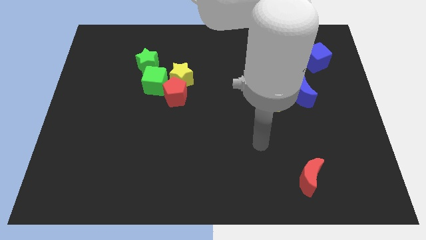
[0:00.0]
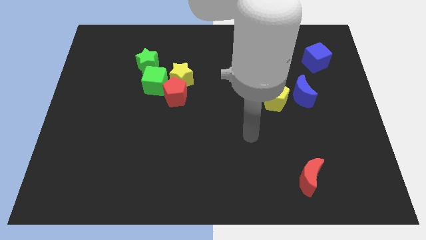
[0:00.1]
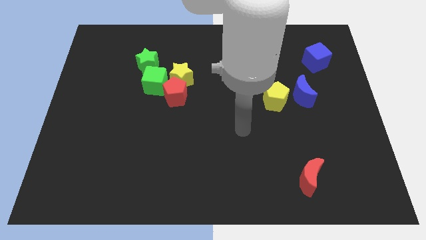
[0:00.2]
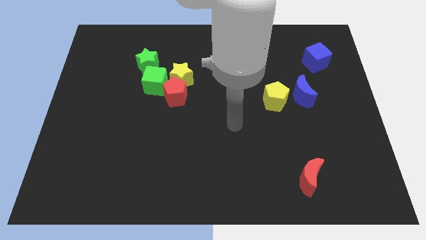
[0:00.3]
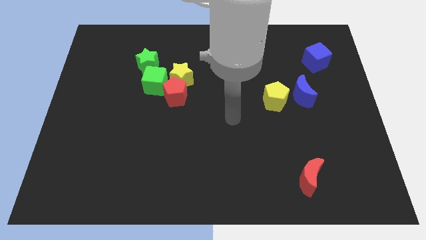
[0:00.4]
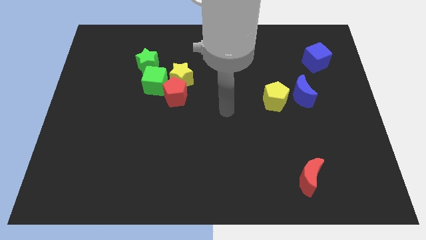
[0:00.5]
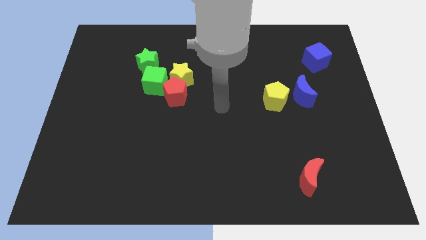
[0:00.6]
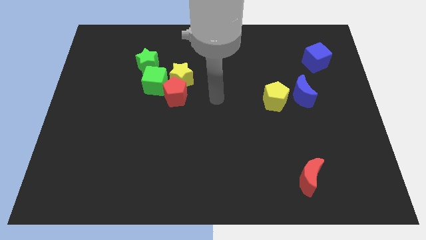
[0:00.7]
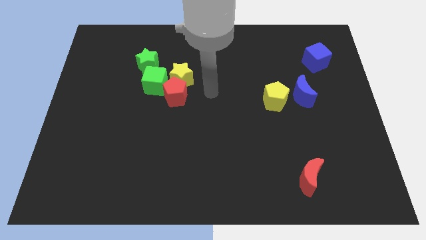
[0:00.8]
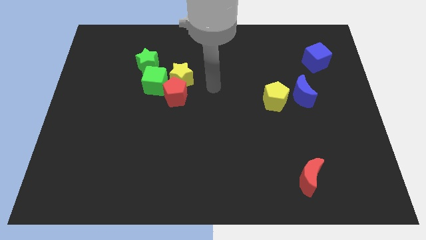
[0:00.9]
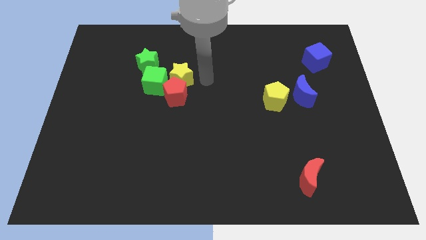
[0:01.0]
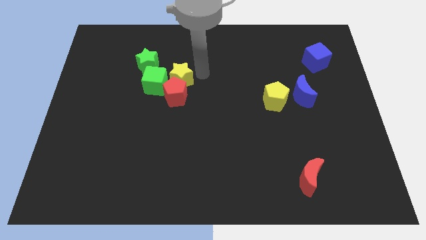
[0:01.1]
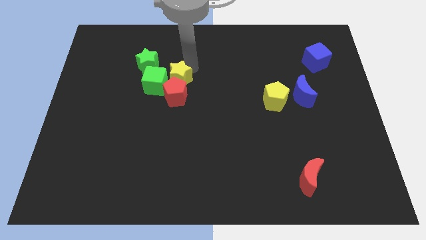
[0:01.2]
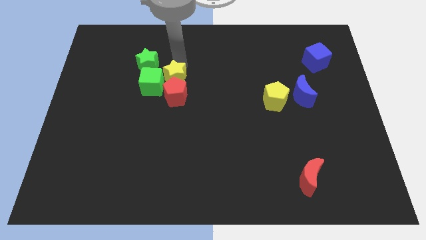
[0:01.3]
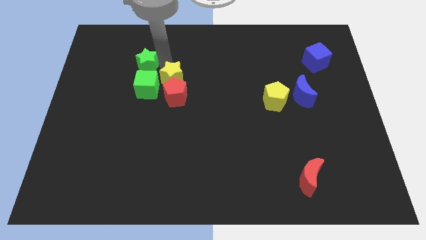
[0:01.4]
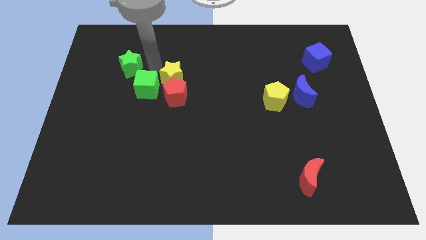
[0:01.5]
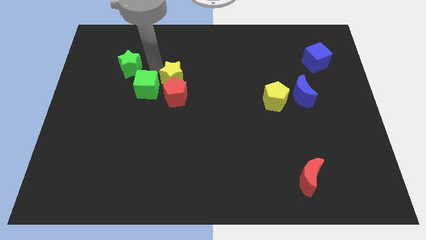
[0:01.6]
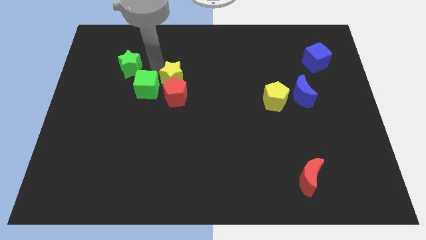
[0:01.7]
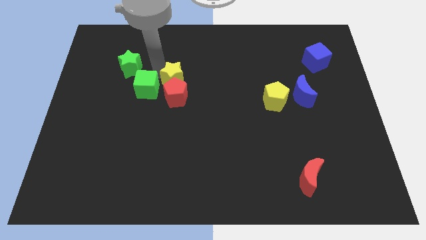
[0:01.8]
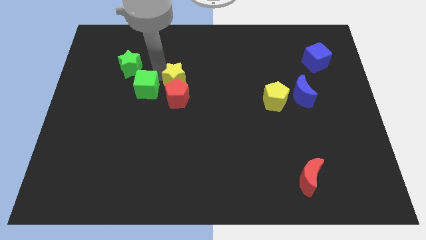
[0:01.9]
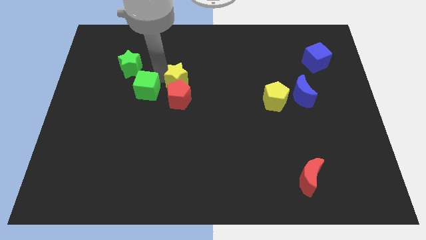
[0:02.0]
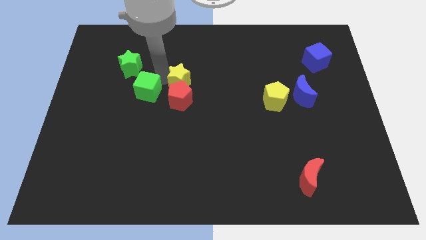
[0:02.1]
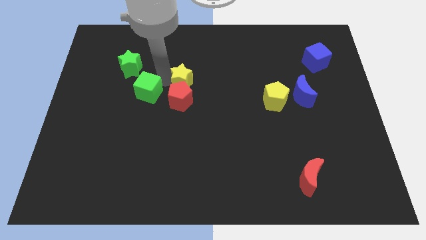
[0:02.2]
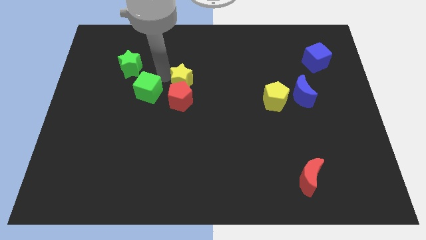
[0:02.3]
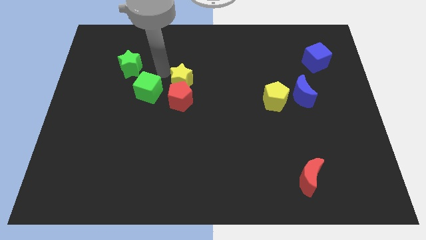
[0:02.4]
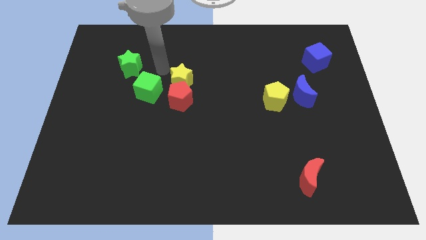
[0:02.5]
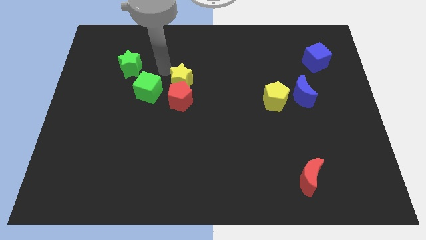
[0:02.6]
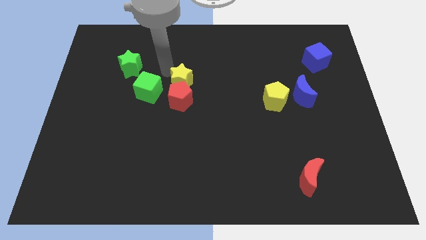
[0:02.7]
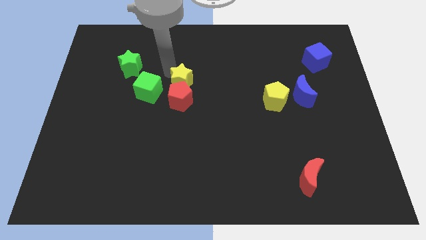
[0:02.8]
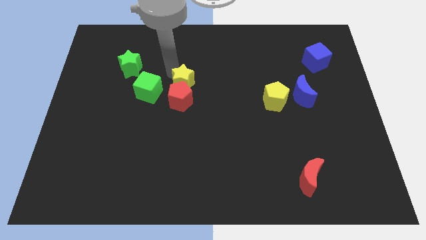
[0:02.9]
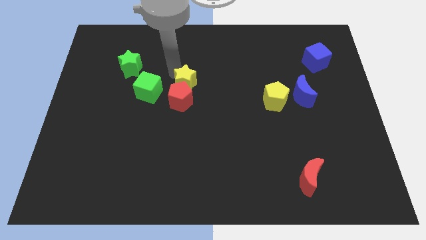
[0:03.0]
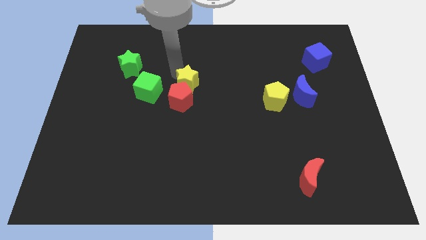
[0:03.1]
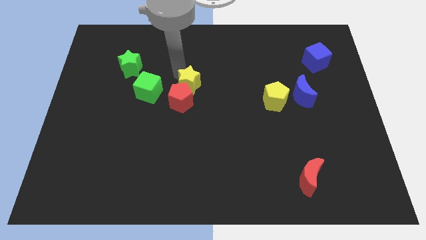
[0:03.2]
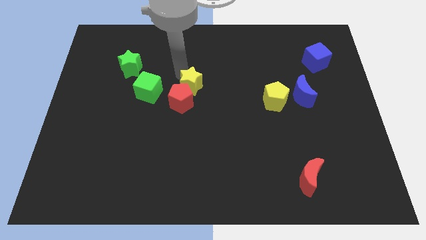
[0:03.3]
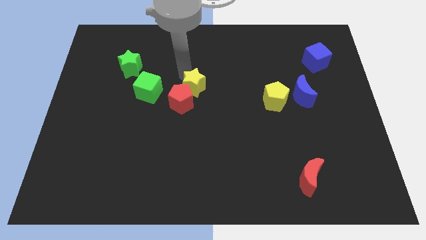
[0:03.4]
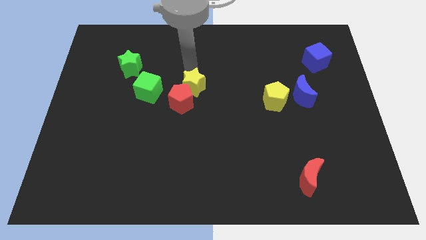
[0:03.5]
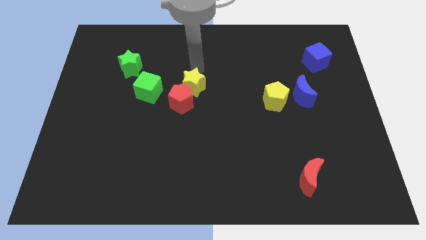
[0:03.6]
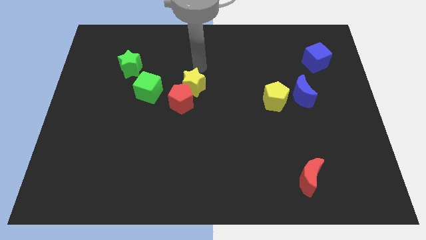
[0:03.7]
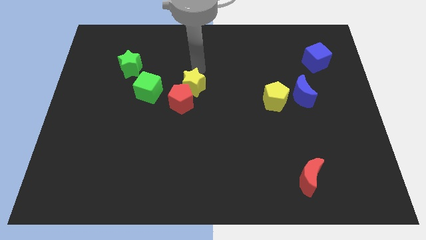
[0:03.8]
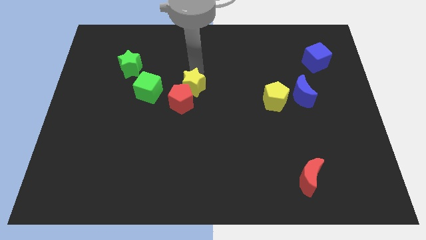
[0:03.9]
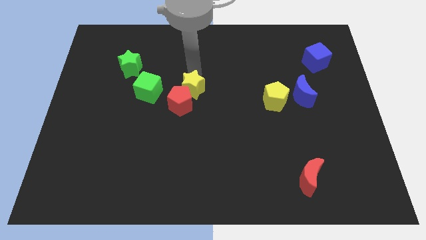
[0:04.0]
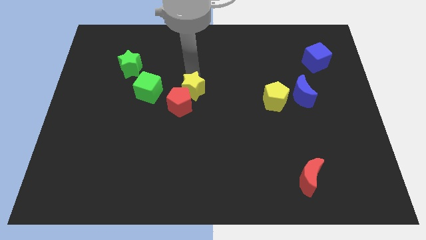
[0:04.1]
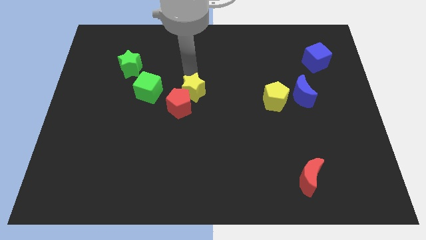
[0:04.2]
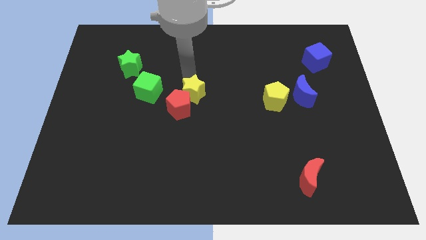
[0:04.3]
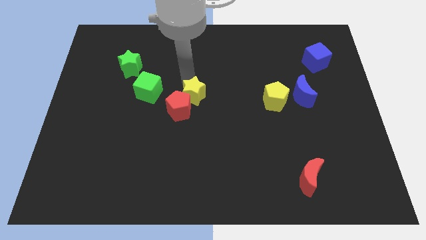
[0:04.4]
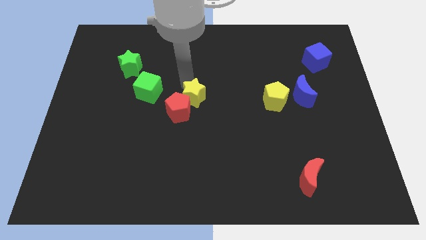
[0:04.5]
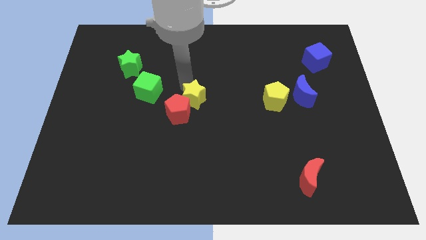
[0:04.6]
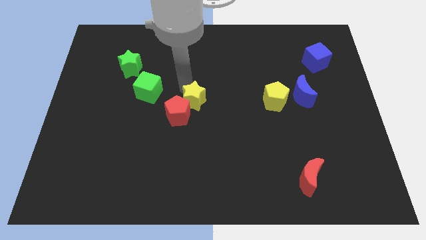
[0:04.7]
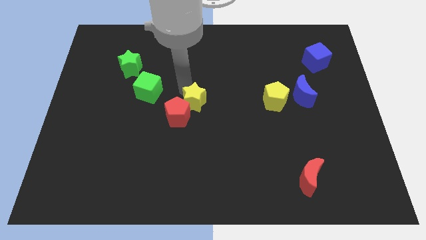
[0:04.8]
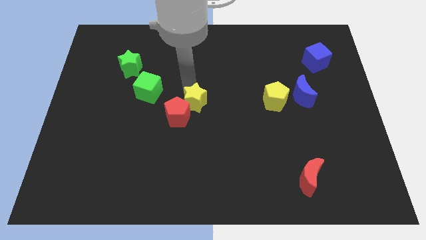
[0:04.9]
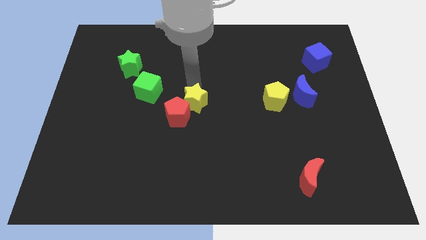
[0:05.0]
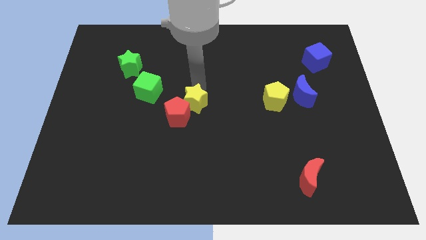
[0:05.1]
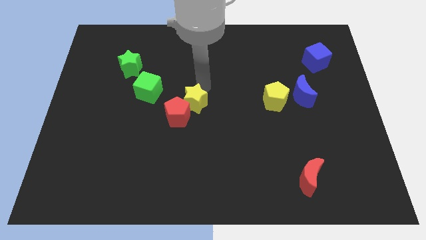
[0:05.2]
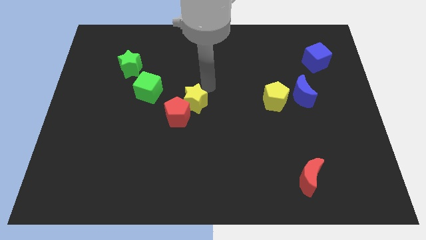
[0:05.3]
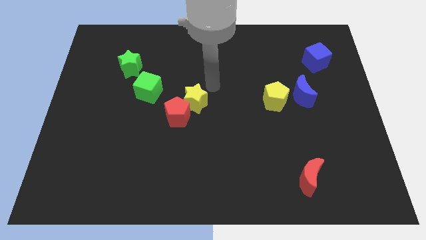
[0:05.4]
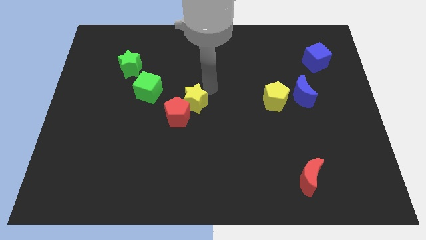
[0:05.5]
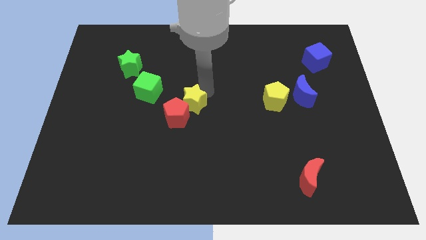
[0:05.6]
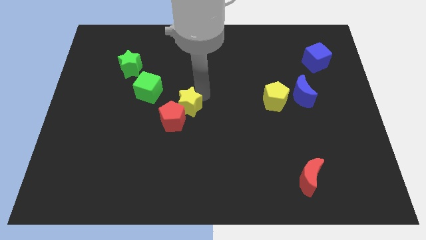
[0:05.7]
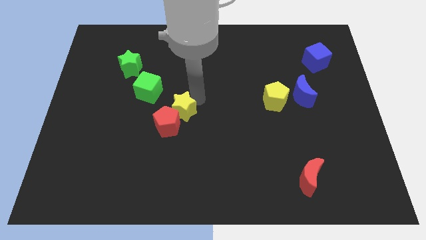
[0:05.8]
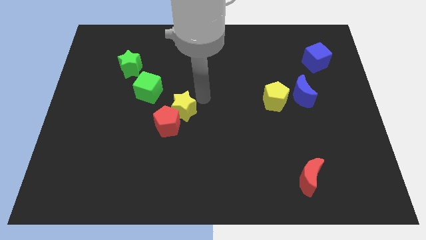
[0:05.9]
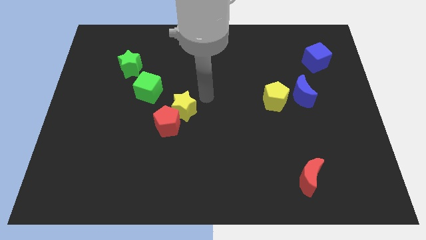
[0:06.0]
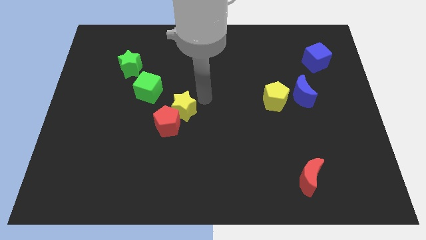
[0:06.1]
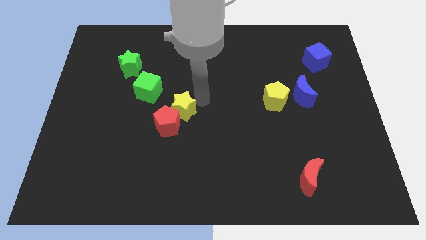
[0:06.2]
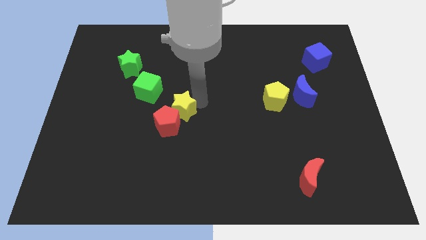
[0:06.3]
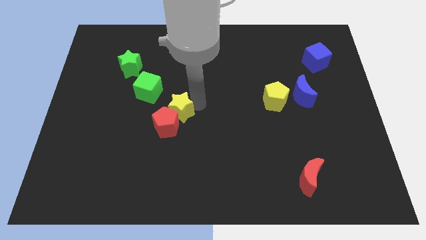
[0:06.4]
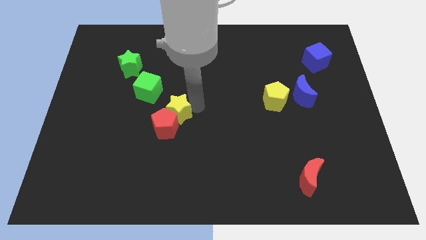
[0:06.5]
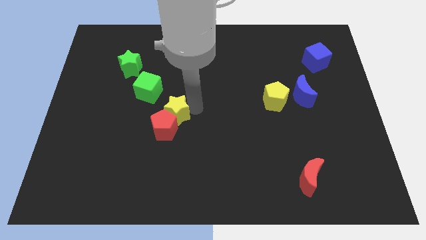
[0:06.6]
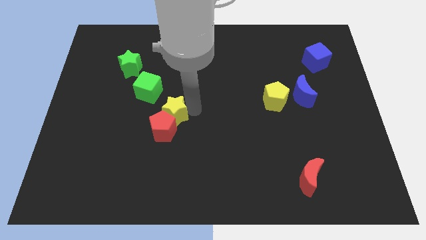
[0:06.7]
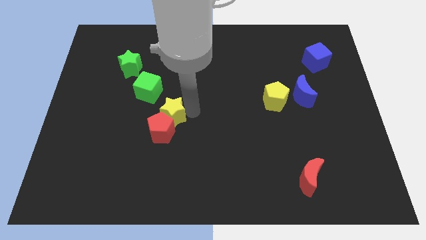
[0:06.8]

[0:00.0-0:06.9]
move the yellow star a little diagonally downwards and left

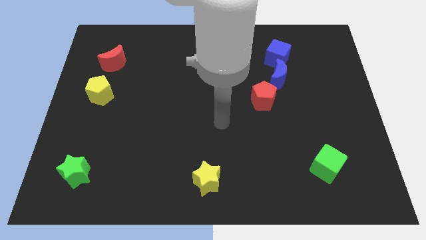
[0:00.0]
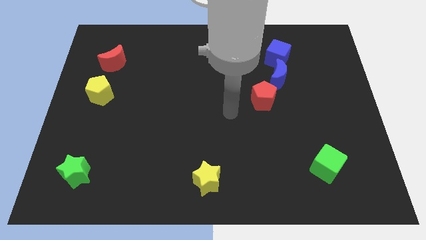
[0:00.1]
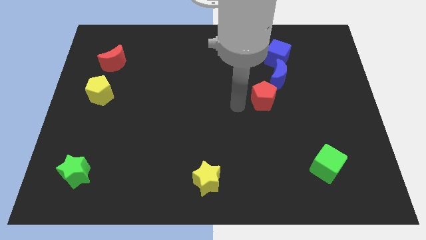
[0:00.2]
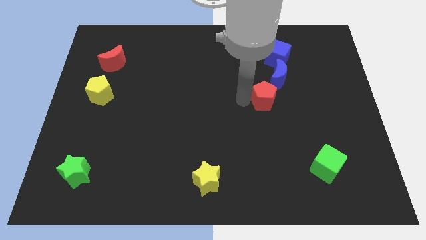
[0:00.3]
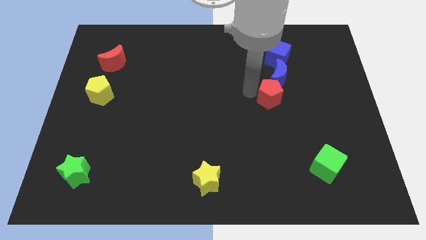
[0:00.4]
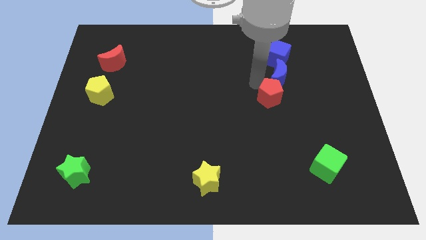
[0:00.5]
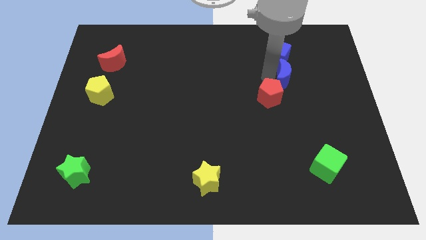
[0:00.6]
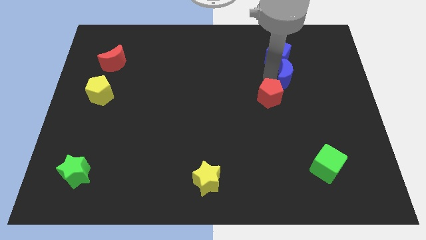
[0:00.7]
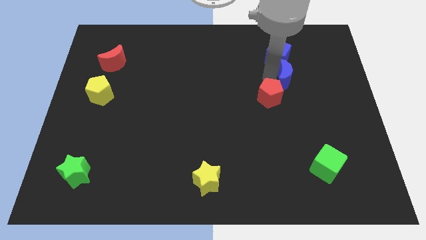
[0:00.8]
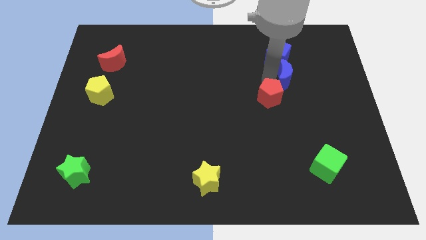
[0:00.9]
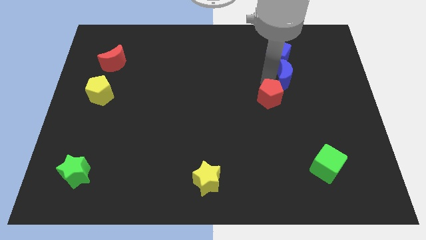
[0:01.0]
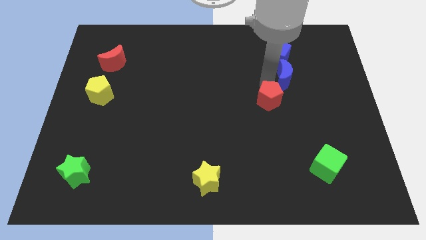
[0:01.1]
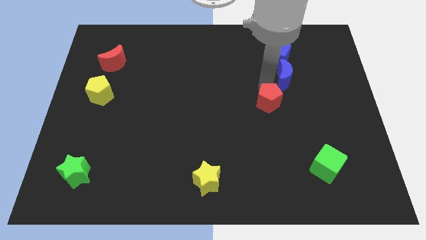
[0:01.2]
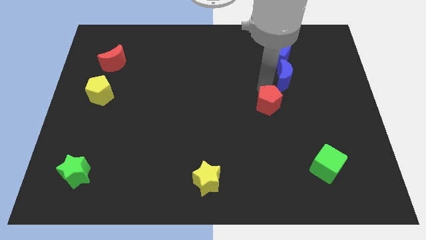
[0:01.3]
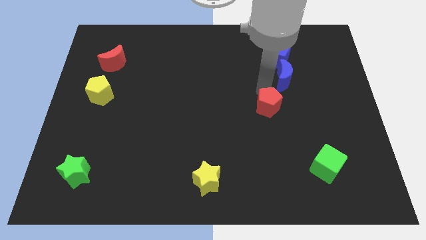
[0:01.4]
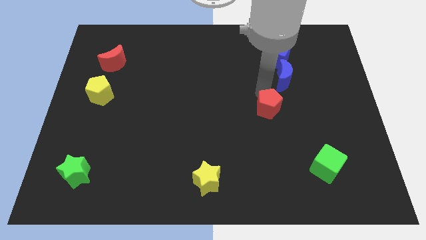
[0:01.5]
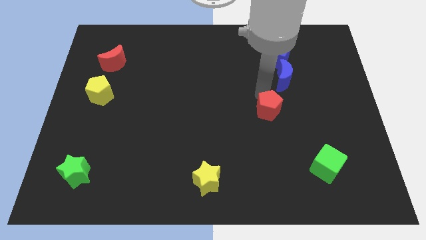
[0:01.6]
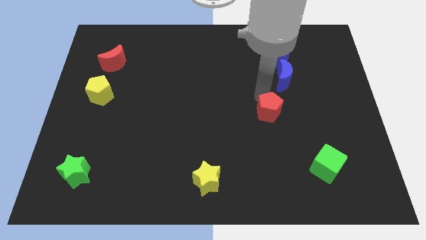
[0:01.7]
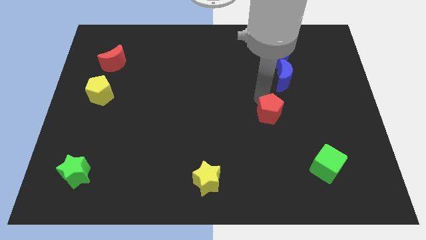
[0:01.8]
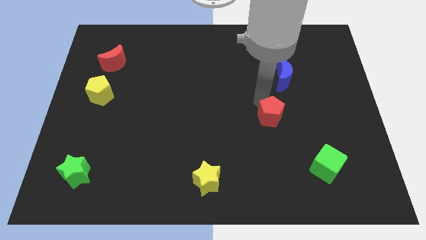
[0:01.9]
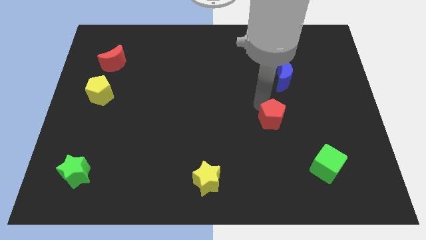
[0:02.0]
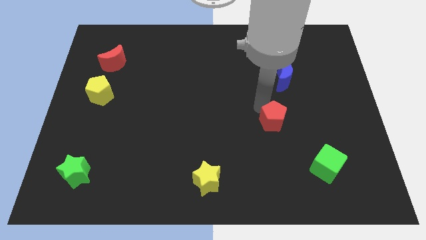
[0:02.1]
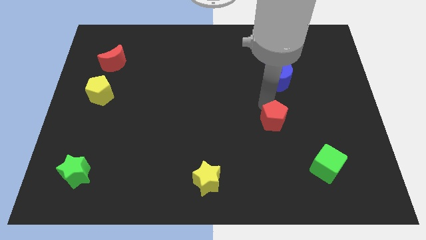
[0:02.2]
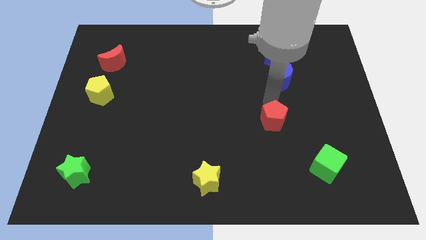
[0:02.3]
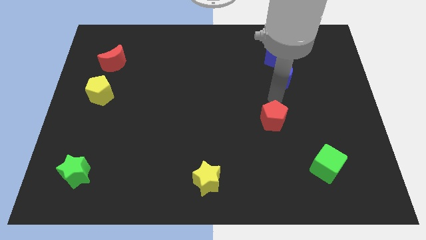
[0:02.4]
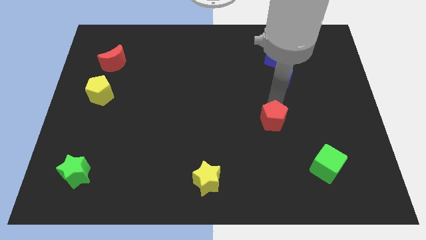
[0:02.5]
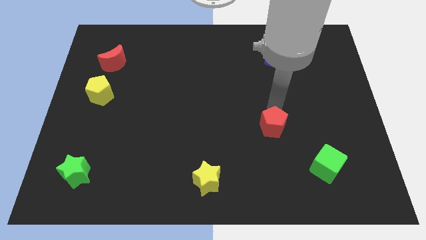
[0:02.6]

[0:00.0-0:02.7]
move the red pentagon a bit down
